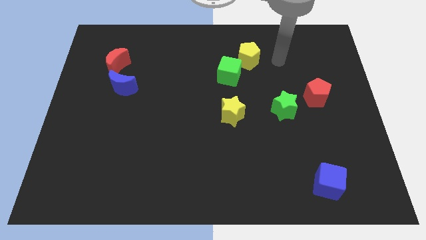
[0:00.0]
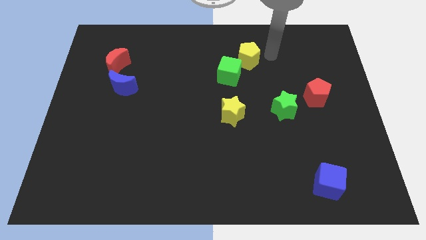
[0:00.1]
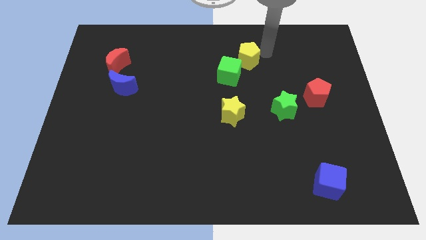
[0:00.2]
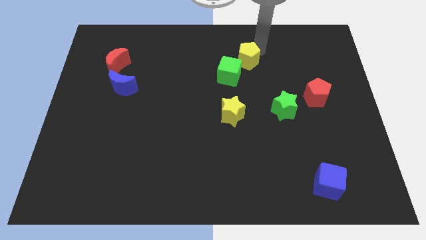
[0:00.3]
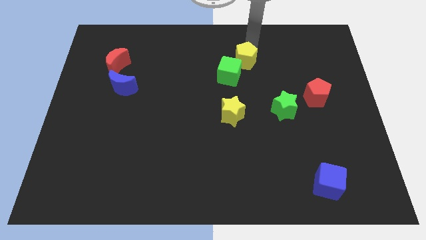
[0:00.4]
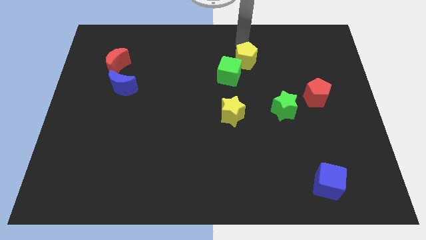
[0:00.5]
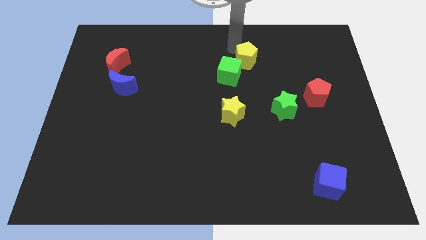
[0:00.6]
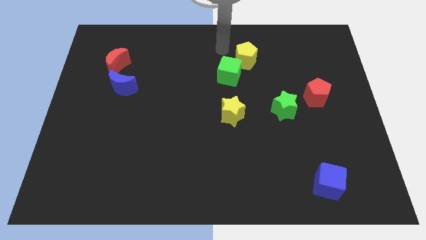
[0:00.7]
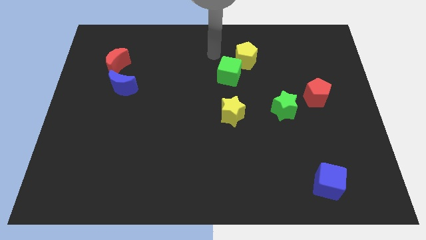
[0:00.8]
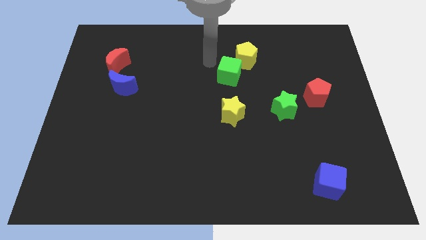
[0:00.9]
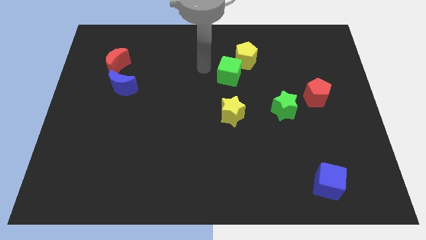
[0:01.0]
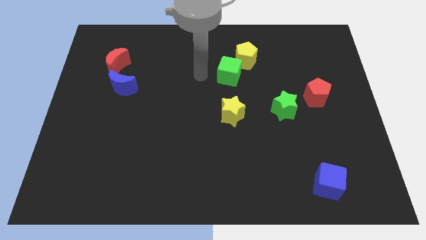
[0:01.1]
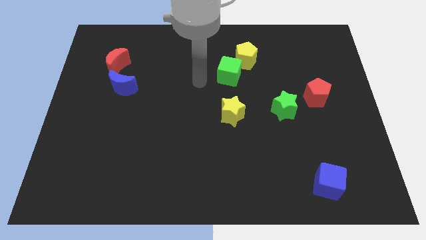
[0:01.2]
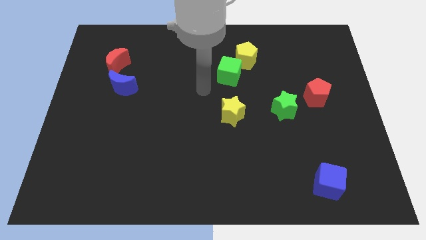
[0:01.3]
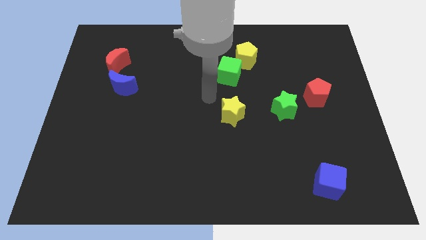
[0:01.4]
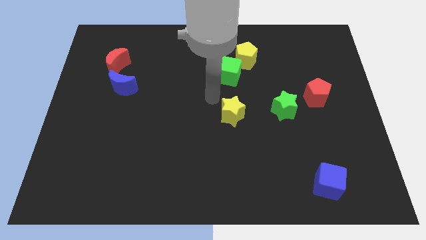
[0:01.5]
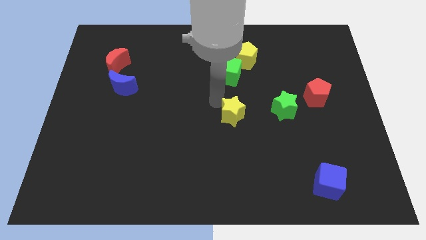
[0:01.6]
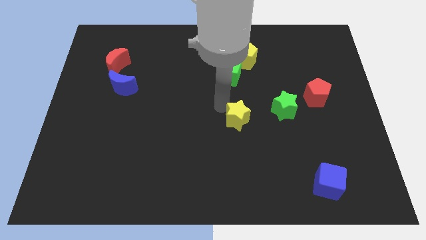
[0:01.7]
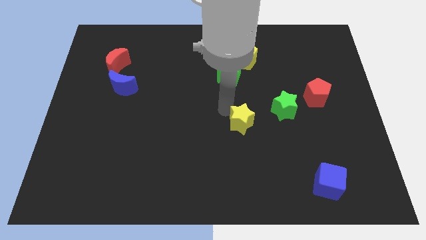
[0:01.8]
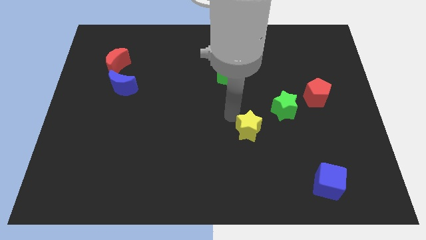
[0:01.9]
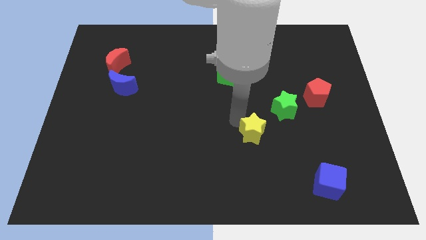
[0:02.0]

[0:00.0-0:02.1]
slide the yellow star downwards and right a little

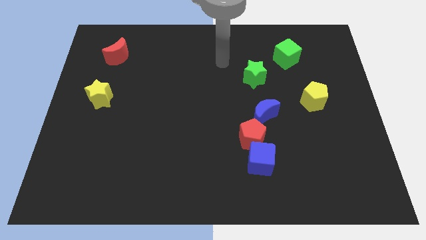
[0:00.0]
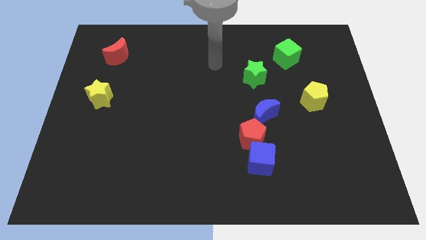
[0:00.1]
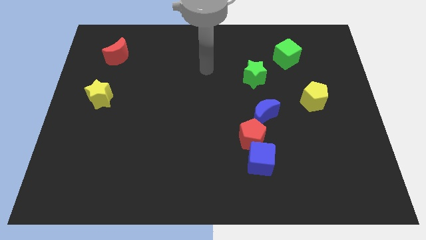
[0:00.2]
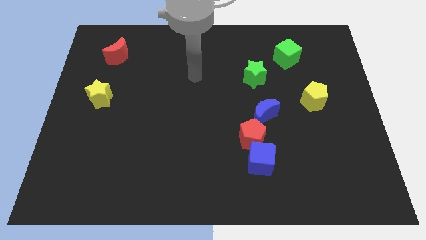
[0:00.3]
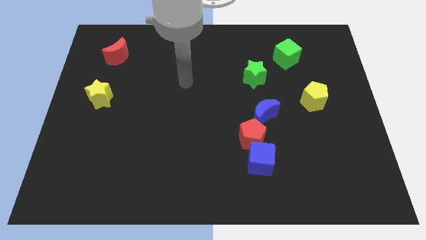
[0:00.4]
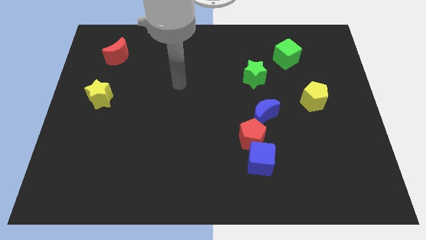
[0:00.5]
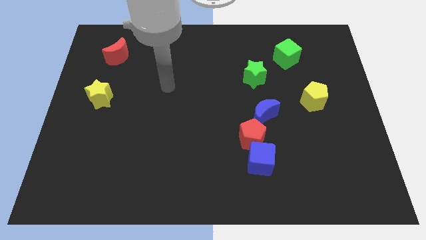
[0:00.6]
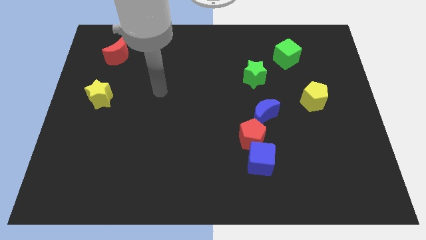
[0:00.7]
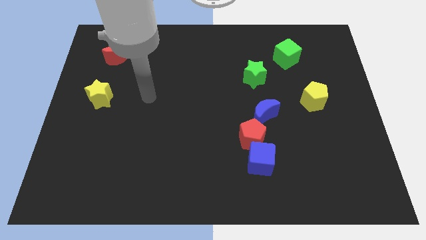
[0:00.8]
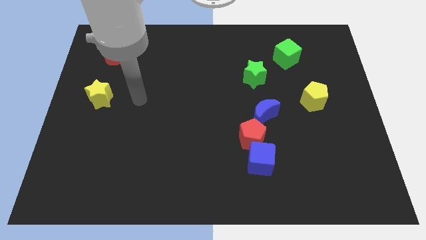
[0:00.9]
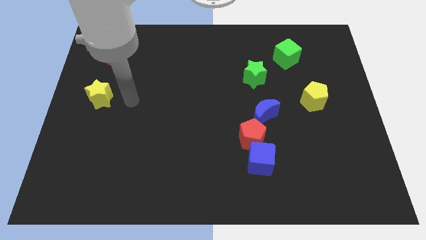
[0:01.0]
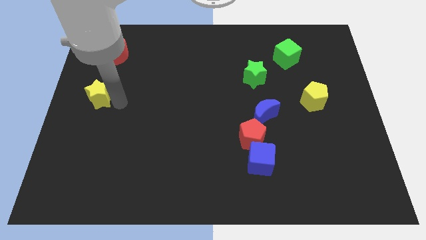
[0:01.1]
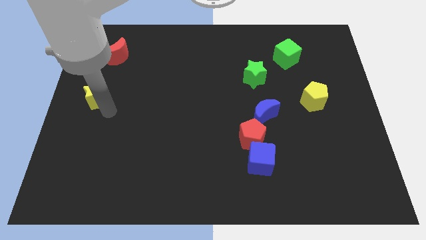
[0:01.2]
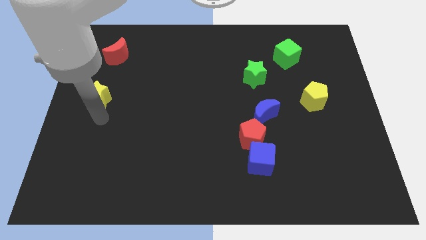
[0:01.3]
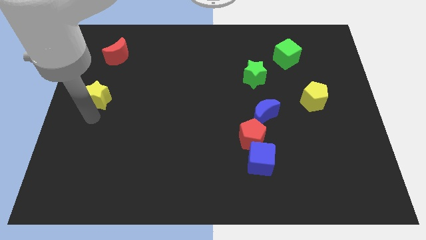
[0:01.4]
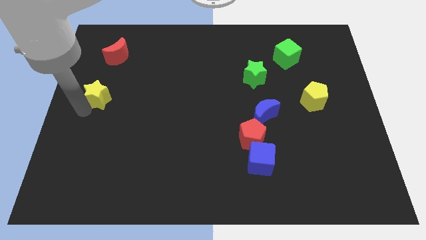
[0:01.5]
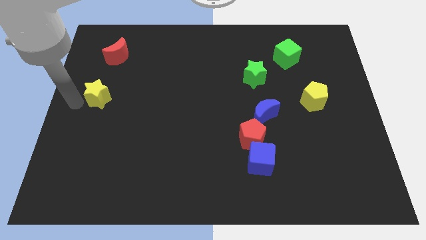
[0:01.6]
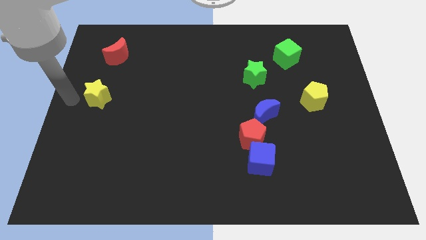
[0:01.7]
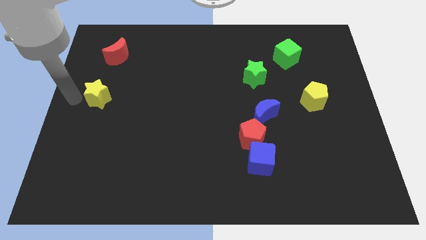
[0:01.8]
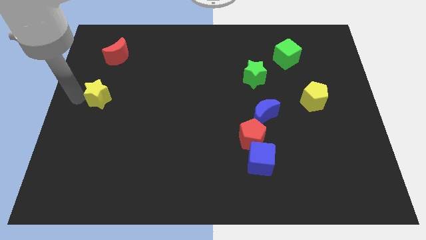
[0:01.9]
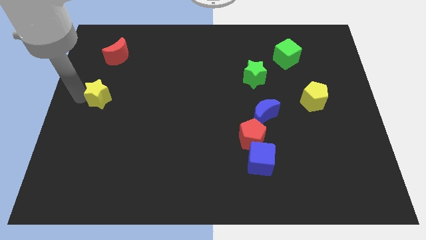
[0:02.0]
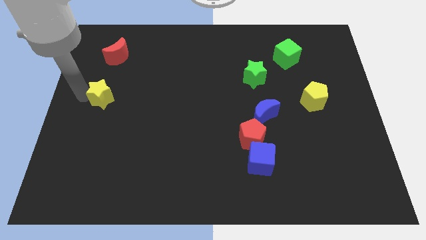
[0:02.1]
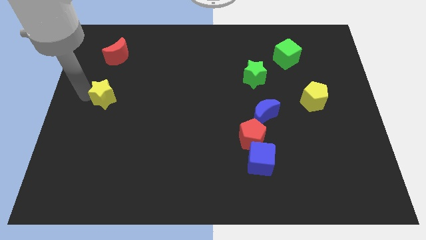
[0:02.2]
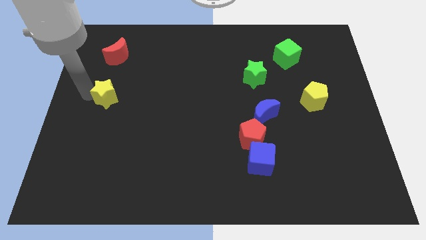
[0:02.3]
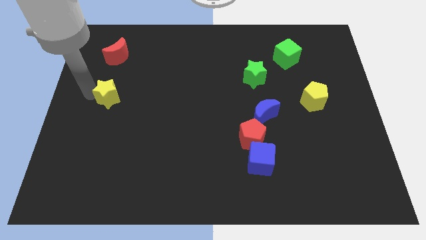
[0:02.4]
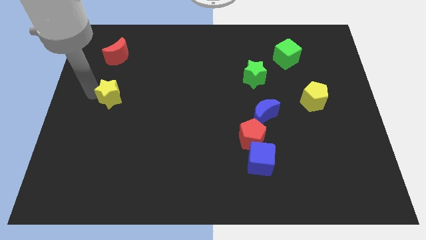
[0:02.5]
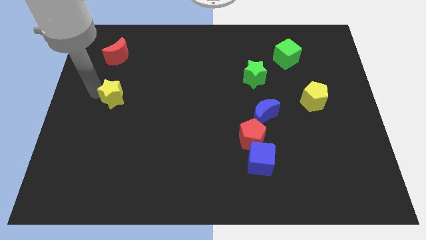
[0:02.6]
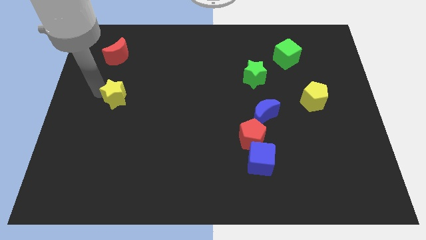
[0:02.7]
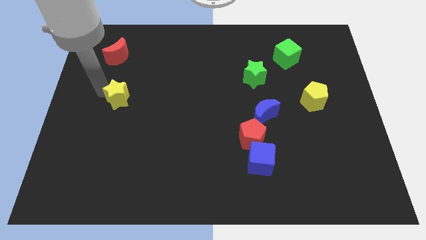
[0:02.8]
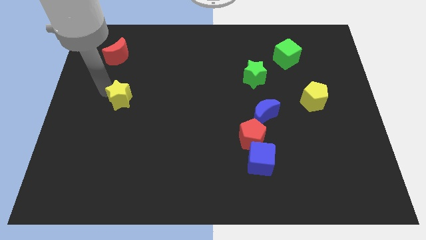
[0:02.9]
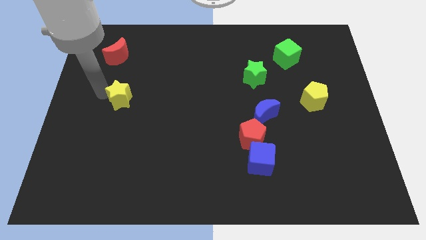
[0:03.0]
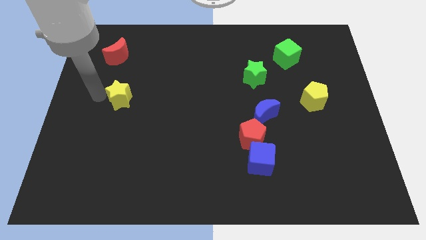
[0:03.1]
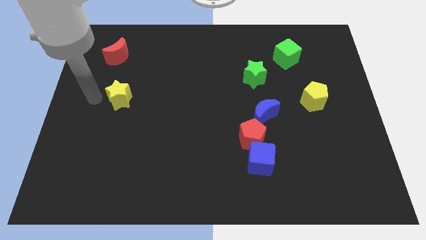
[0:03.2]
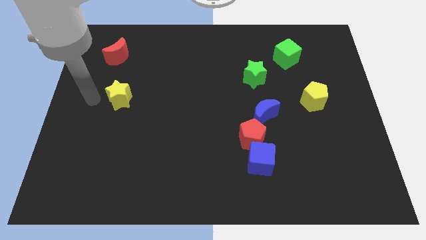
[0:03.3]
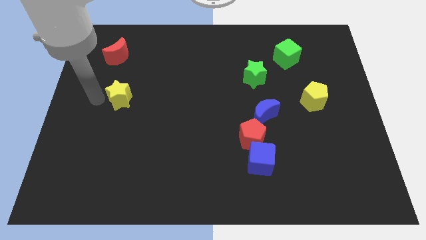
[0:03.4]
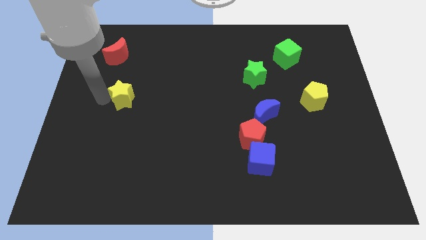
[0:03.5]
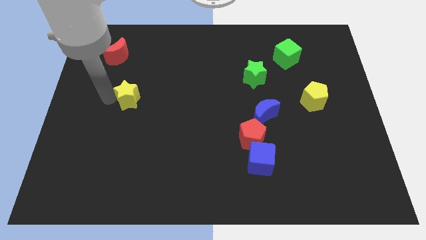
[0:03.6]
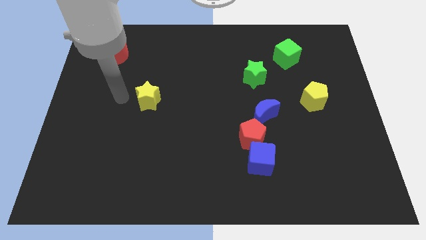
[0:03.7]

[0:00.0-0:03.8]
slide the yellow star right slightly

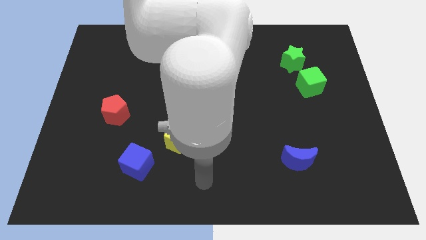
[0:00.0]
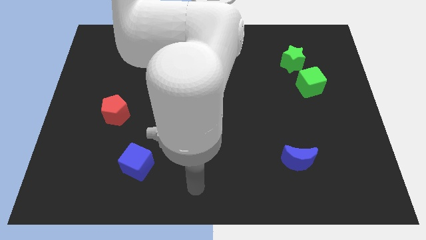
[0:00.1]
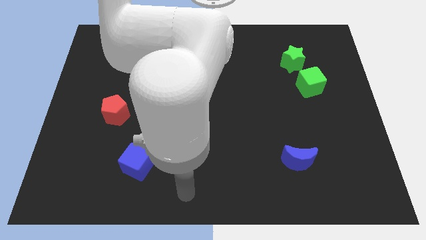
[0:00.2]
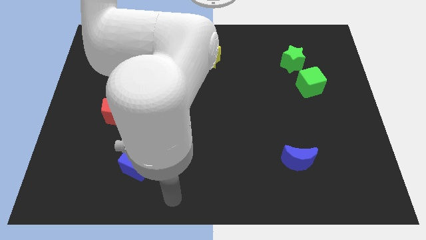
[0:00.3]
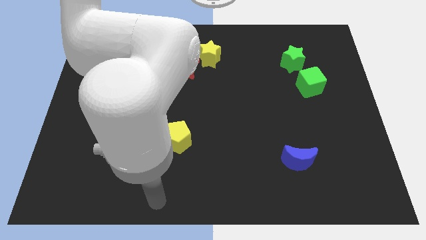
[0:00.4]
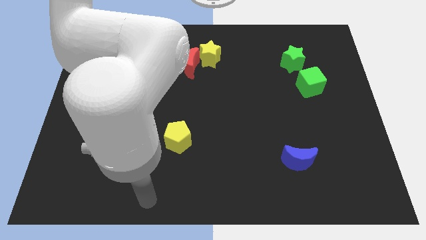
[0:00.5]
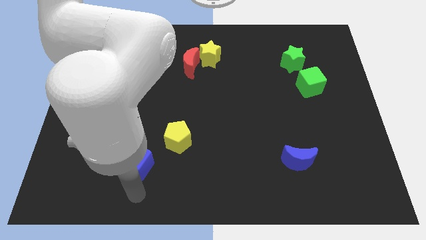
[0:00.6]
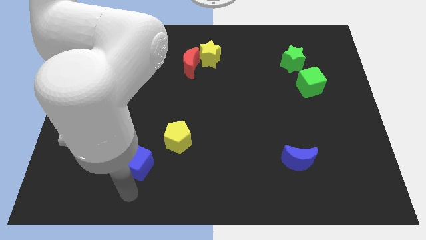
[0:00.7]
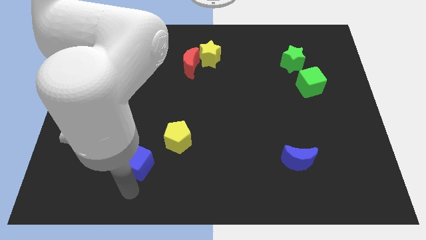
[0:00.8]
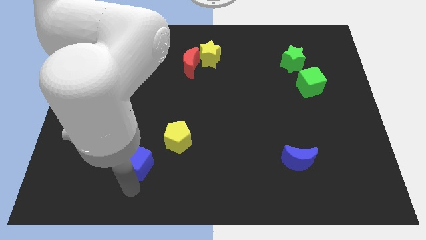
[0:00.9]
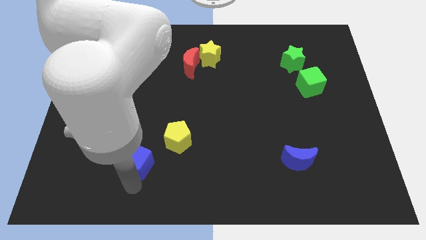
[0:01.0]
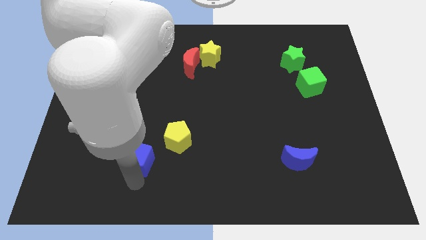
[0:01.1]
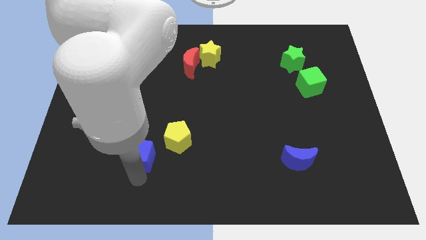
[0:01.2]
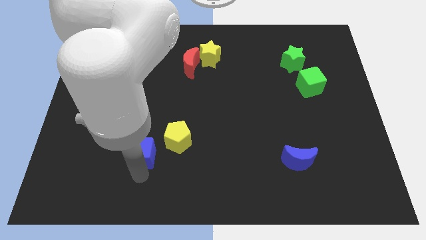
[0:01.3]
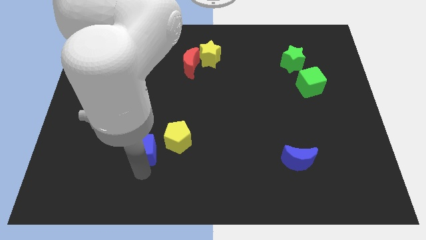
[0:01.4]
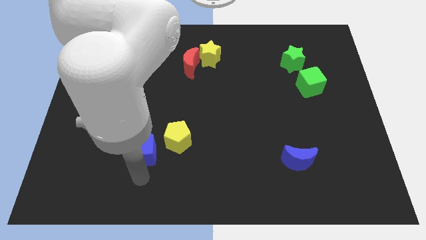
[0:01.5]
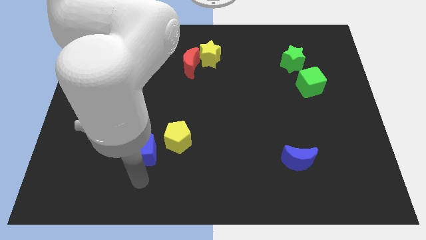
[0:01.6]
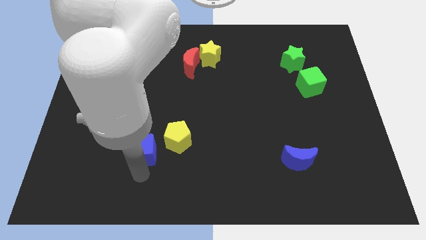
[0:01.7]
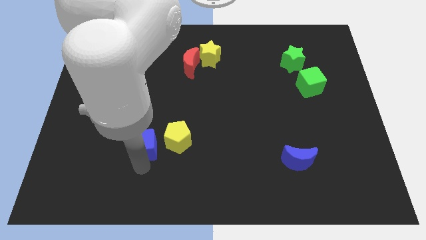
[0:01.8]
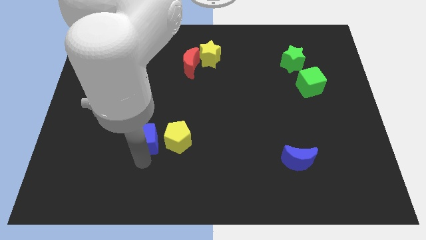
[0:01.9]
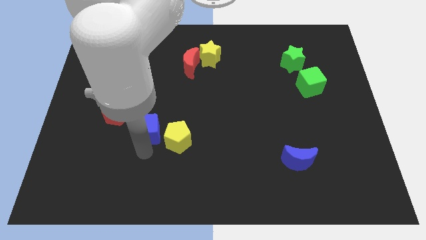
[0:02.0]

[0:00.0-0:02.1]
slightly push the blue cube up
